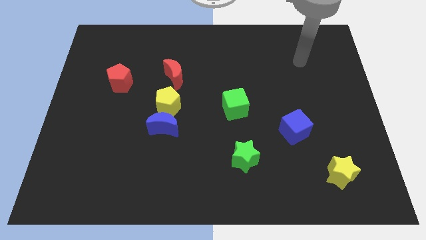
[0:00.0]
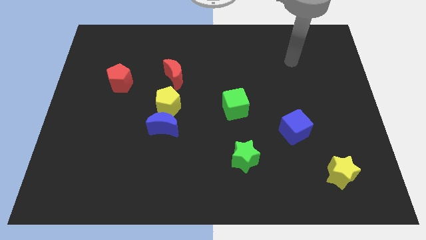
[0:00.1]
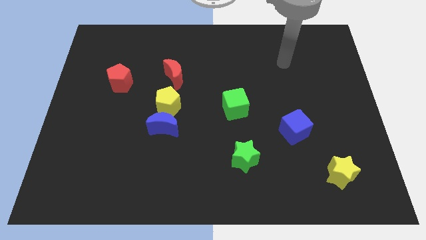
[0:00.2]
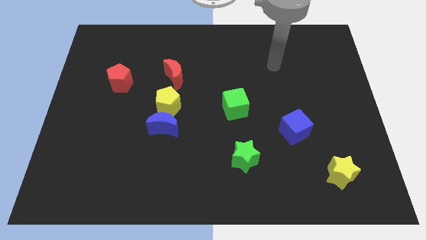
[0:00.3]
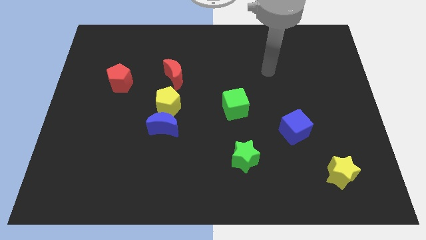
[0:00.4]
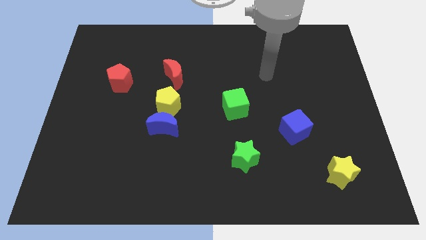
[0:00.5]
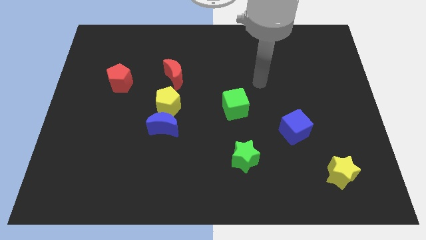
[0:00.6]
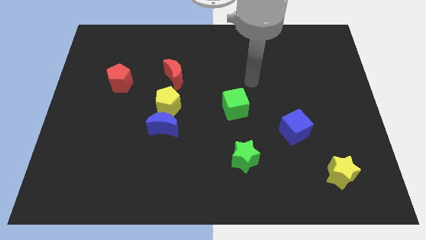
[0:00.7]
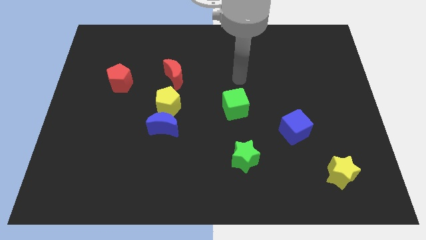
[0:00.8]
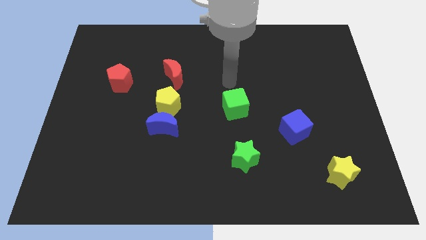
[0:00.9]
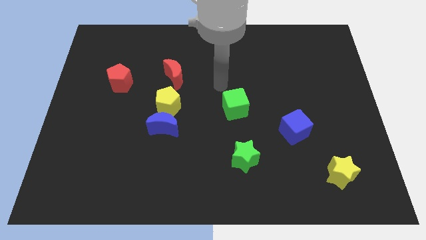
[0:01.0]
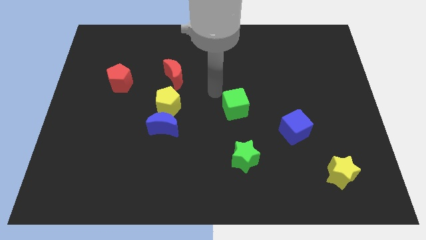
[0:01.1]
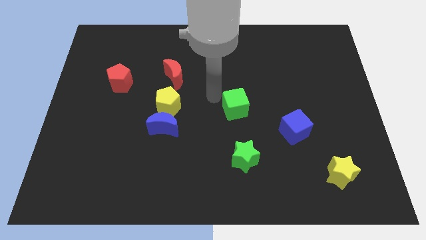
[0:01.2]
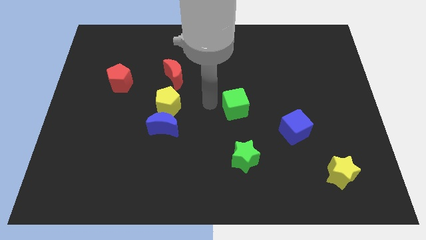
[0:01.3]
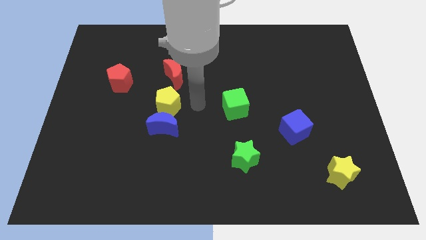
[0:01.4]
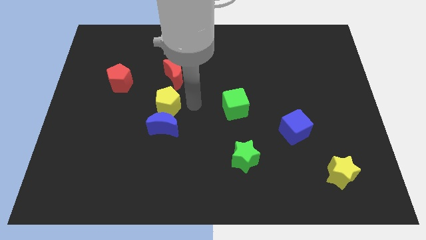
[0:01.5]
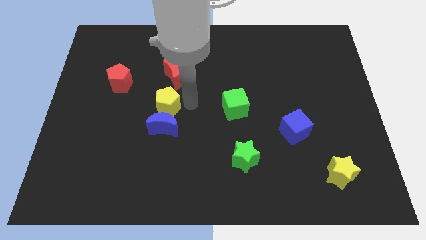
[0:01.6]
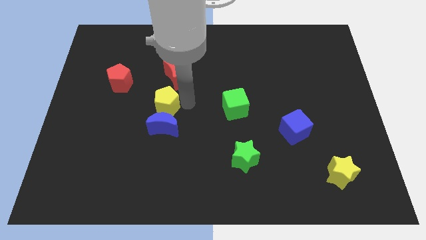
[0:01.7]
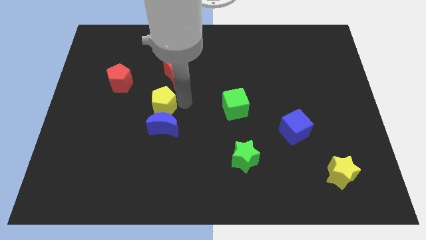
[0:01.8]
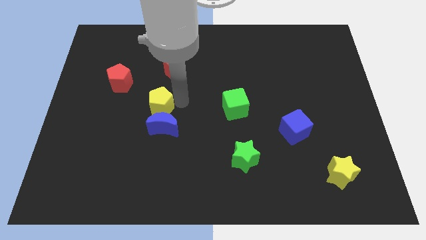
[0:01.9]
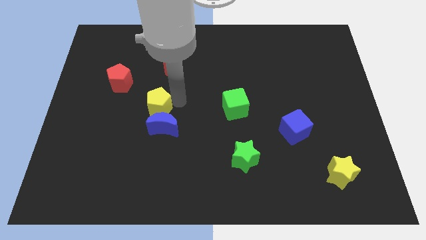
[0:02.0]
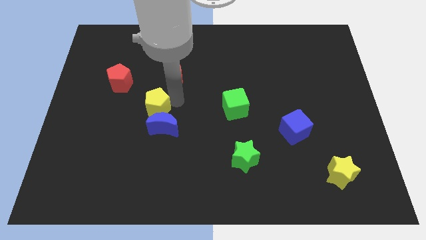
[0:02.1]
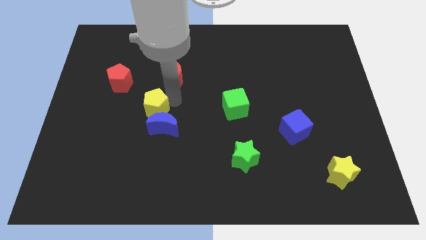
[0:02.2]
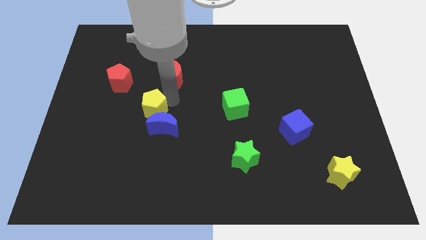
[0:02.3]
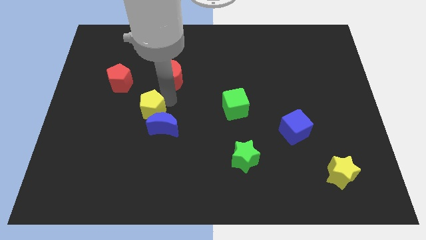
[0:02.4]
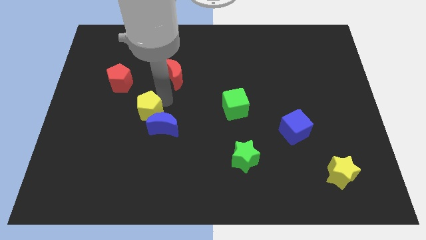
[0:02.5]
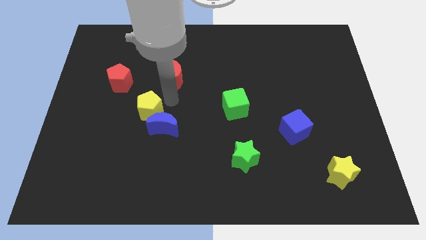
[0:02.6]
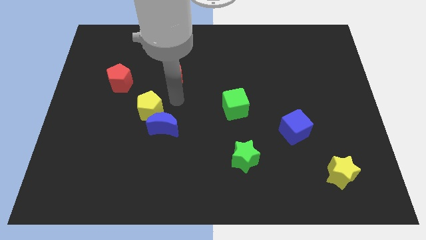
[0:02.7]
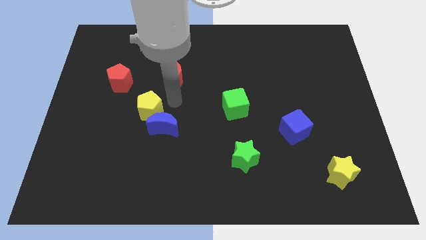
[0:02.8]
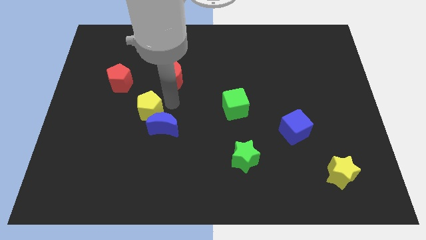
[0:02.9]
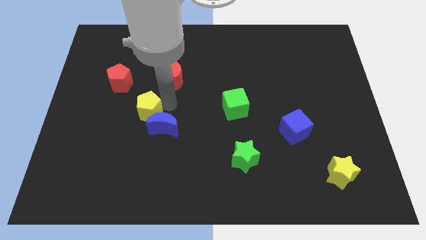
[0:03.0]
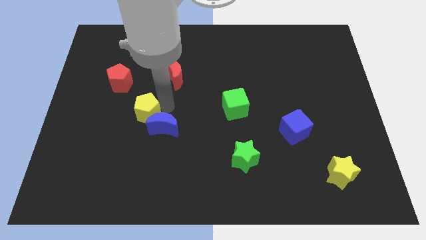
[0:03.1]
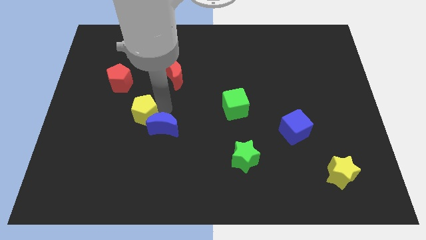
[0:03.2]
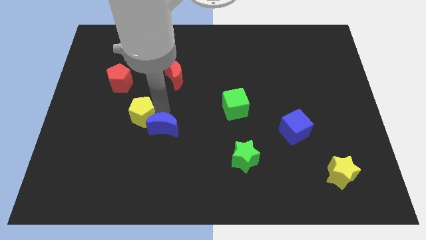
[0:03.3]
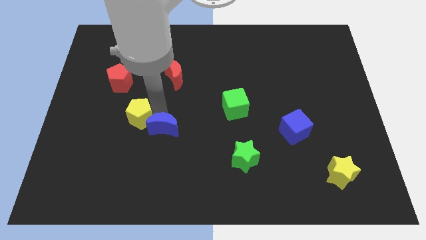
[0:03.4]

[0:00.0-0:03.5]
slightly slide the yellow pentagon down and left diagonally

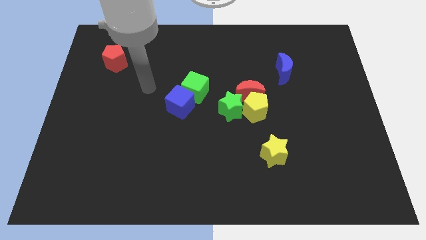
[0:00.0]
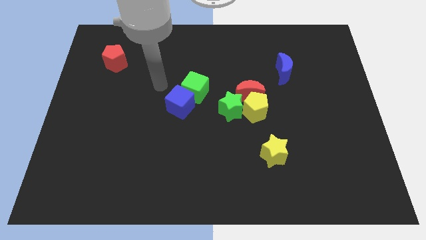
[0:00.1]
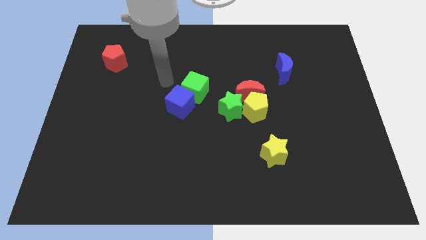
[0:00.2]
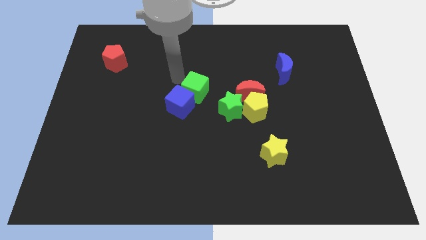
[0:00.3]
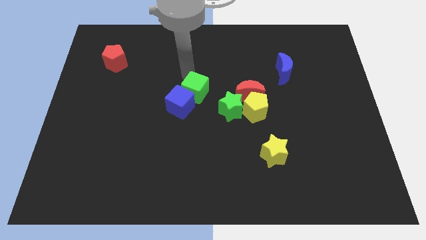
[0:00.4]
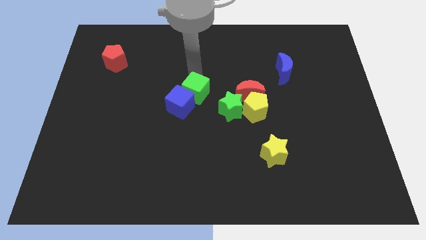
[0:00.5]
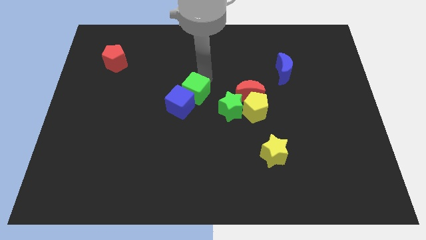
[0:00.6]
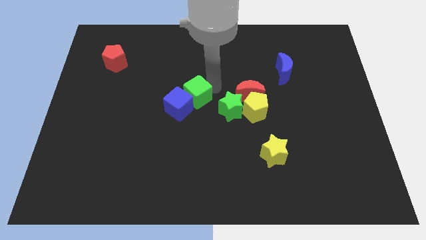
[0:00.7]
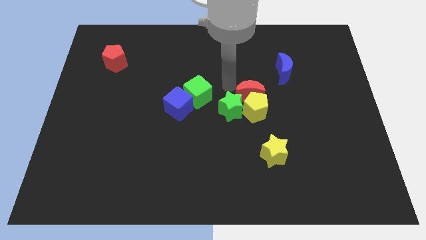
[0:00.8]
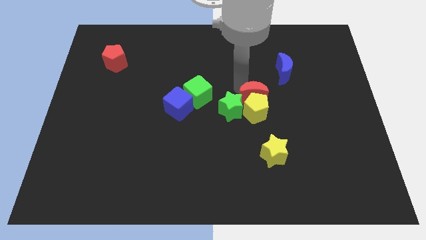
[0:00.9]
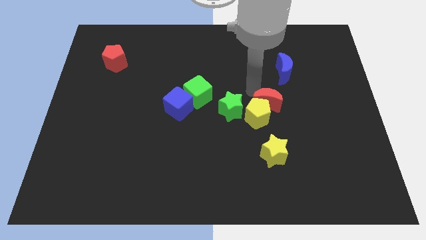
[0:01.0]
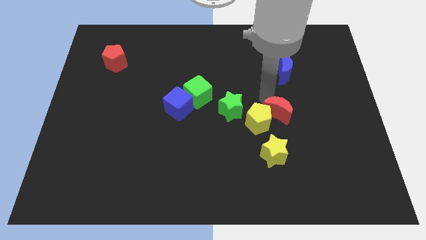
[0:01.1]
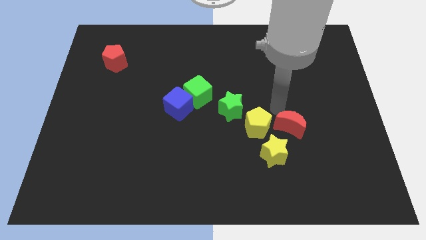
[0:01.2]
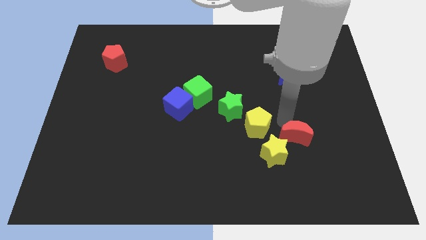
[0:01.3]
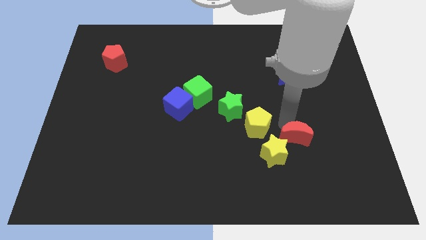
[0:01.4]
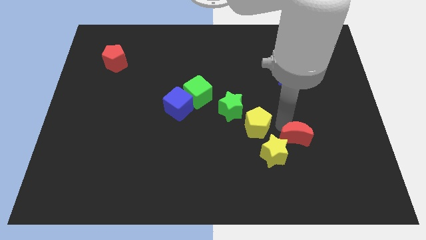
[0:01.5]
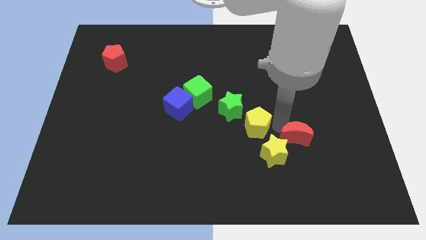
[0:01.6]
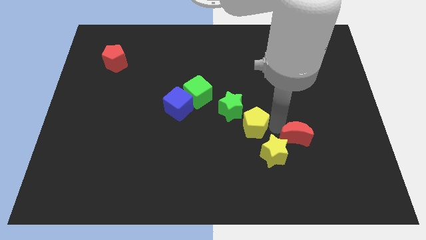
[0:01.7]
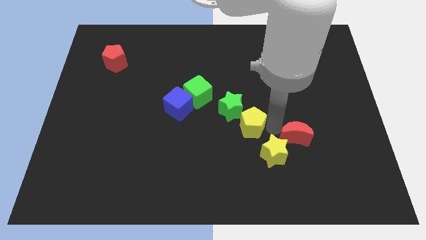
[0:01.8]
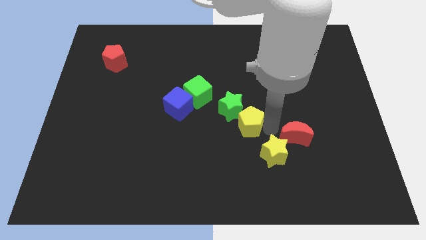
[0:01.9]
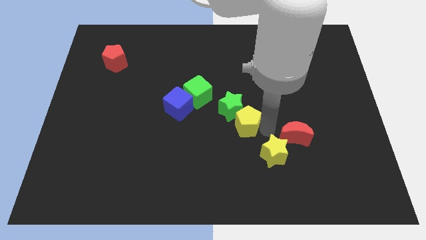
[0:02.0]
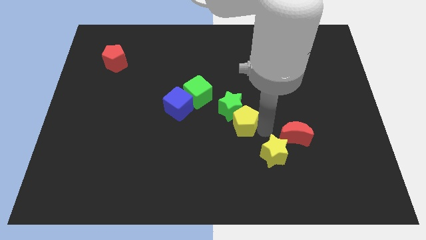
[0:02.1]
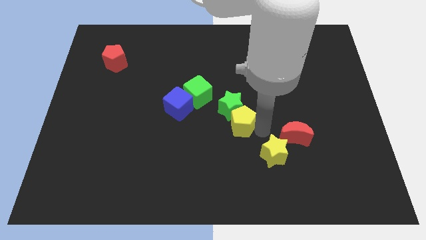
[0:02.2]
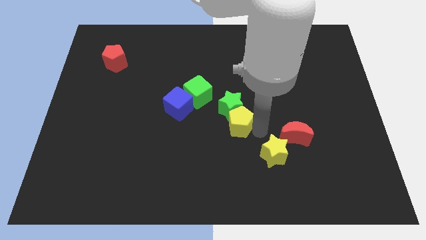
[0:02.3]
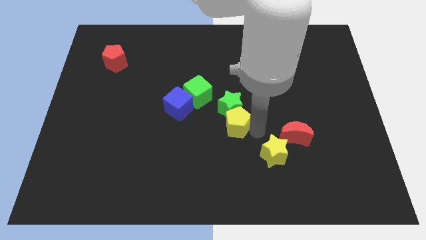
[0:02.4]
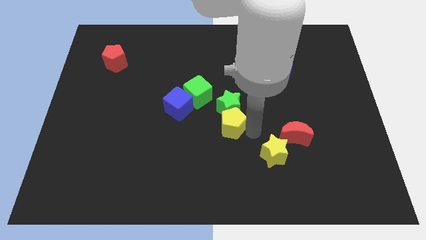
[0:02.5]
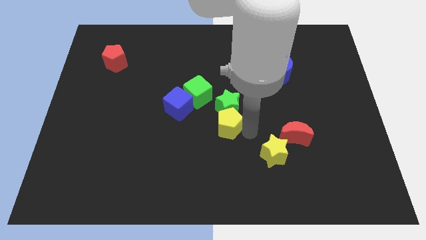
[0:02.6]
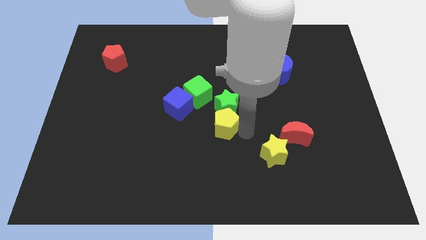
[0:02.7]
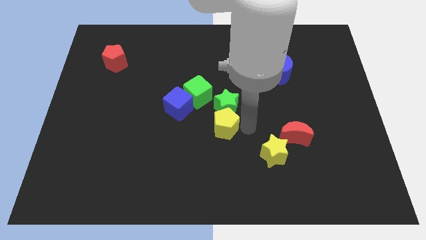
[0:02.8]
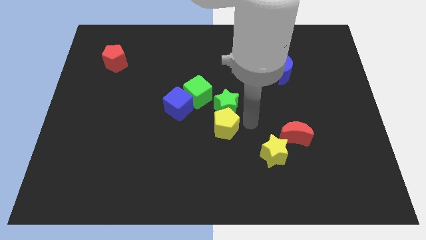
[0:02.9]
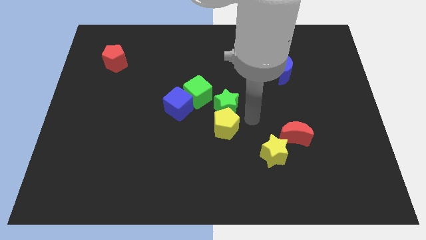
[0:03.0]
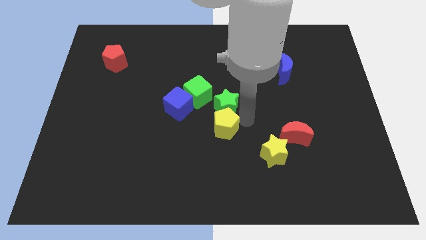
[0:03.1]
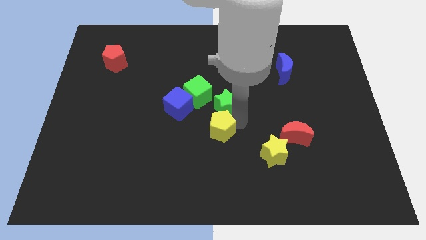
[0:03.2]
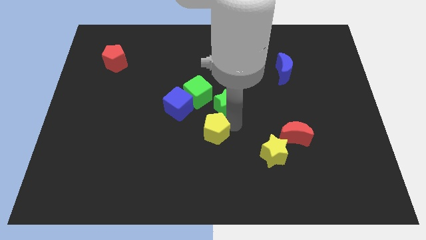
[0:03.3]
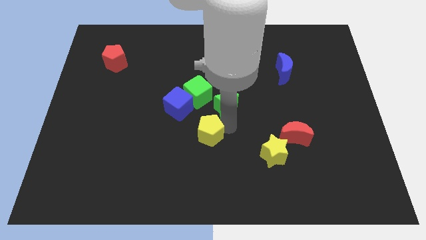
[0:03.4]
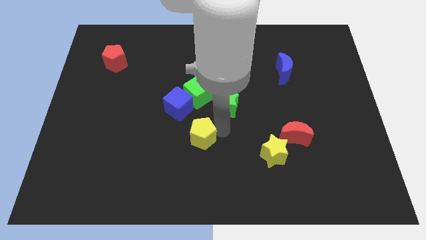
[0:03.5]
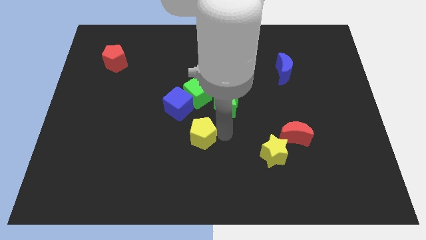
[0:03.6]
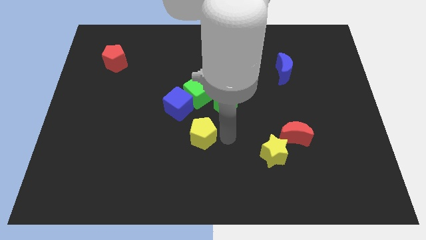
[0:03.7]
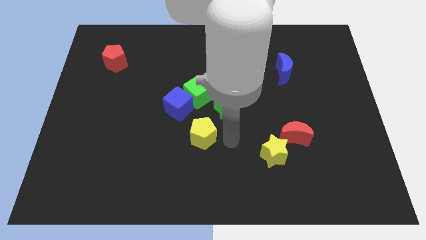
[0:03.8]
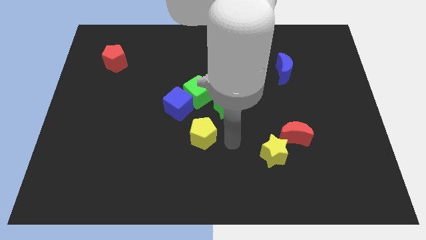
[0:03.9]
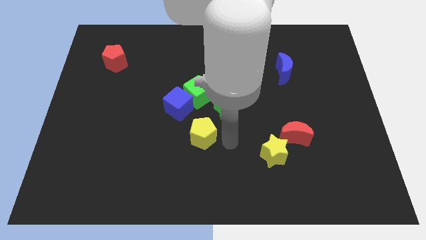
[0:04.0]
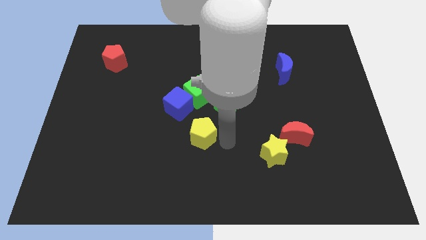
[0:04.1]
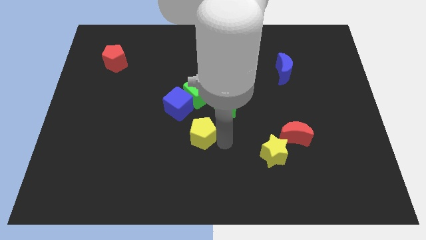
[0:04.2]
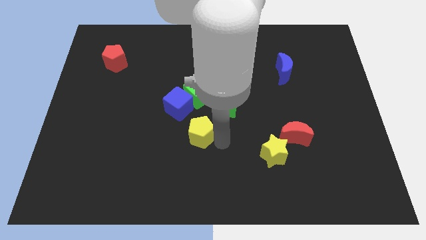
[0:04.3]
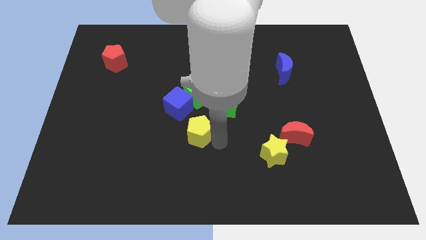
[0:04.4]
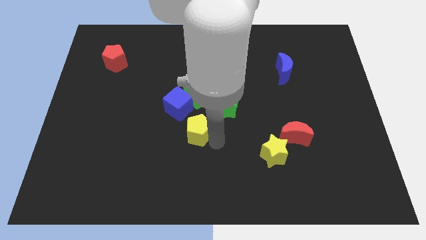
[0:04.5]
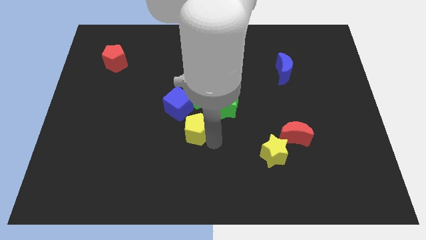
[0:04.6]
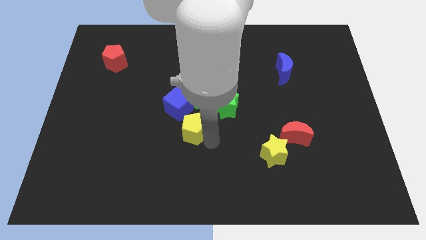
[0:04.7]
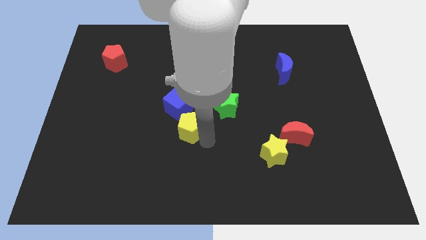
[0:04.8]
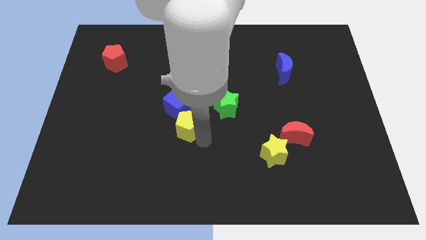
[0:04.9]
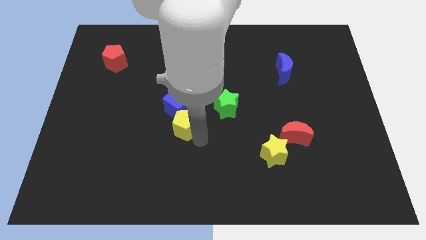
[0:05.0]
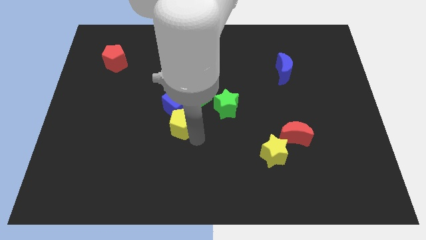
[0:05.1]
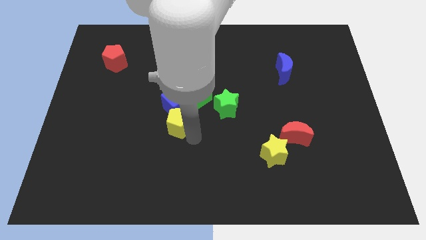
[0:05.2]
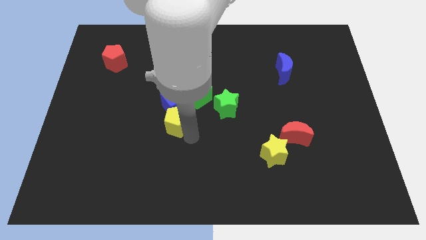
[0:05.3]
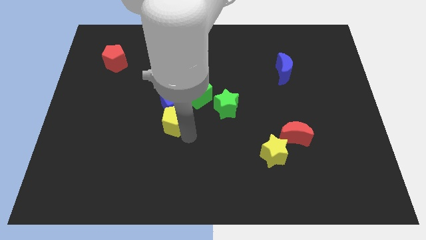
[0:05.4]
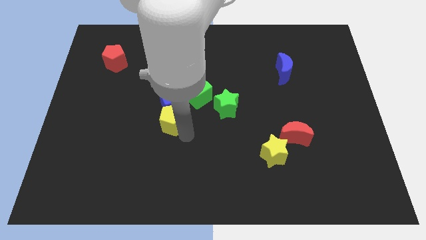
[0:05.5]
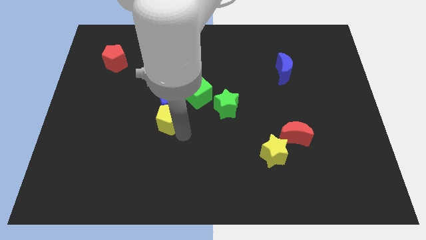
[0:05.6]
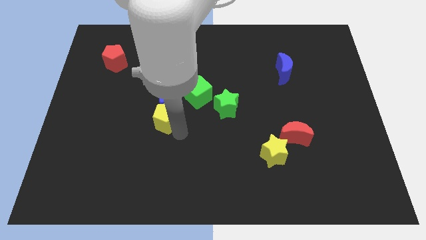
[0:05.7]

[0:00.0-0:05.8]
push the yellow pentagon left
